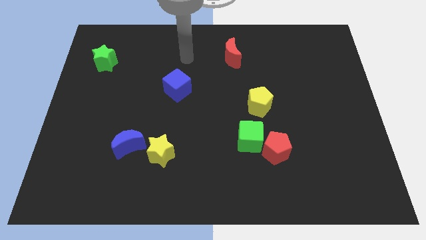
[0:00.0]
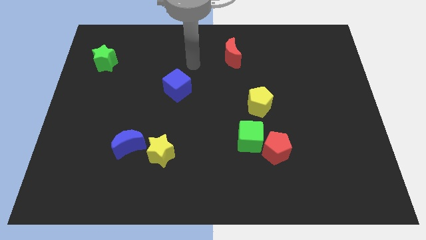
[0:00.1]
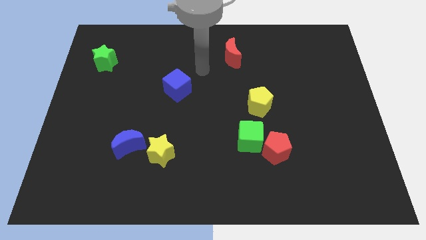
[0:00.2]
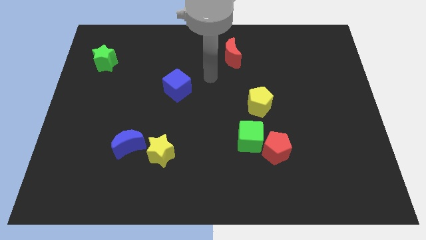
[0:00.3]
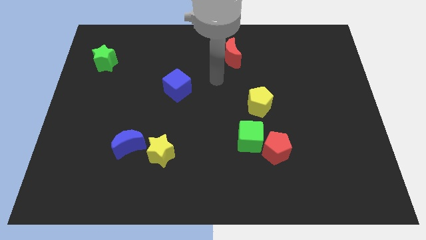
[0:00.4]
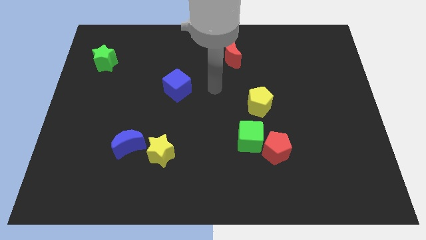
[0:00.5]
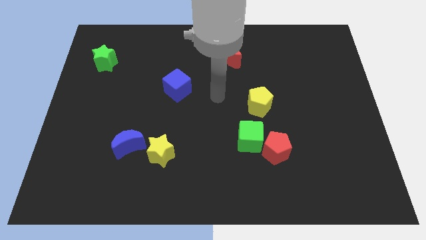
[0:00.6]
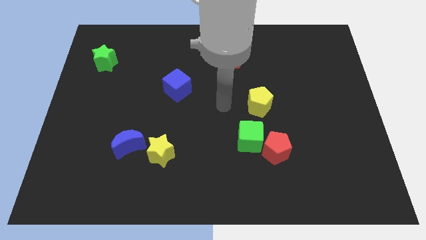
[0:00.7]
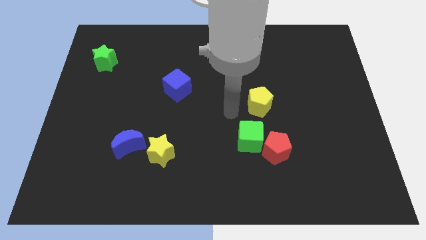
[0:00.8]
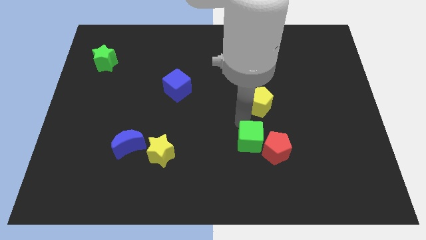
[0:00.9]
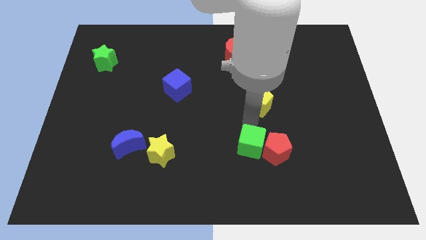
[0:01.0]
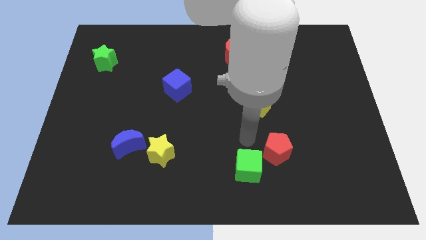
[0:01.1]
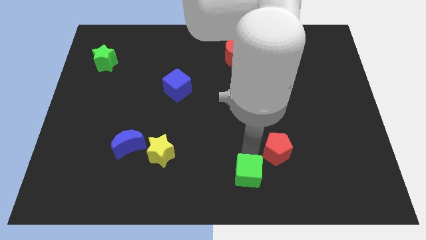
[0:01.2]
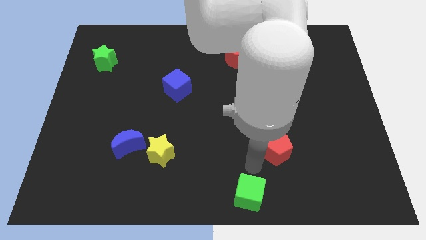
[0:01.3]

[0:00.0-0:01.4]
move the red pentagon away from the green cube

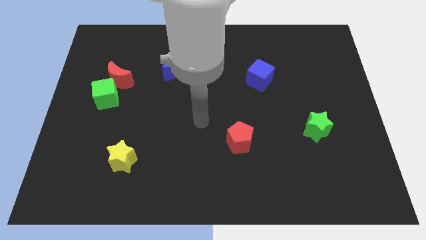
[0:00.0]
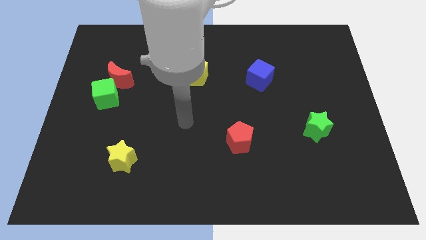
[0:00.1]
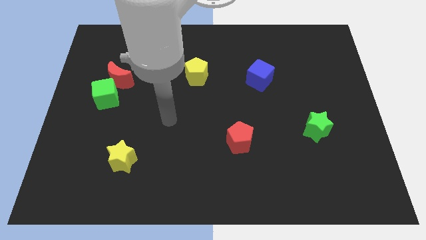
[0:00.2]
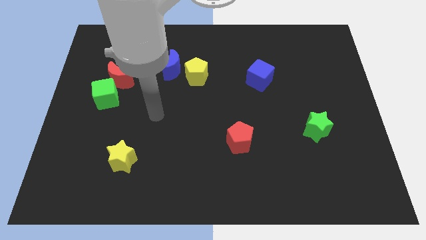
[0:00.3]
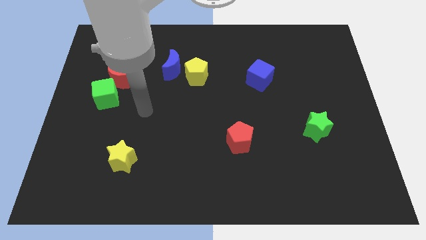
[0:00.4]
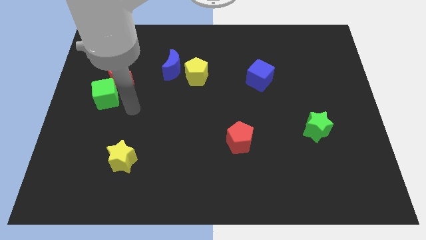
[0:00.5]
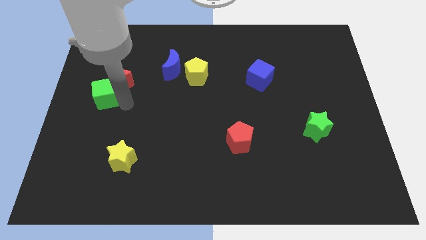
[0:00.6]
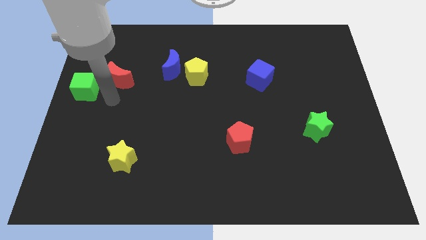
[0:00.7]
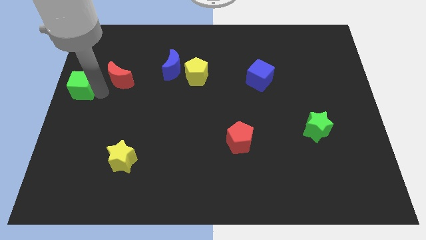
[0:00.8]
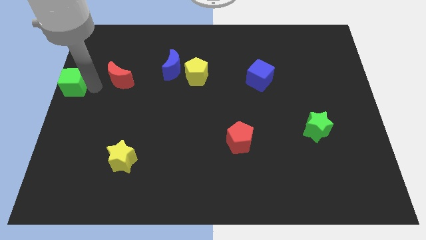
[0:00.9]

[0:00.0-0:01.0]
separate the red moon from the green cube

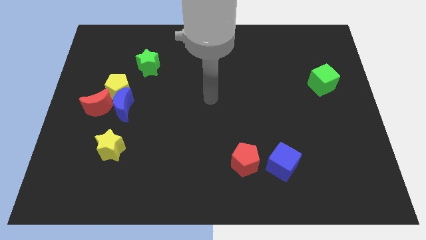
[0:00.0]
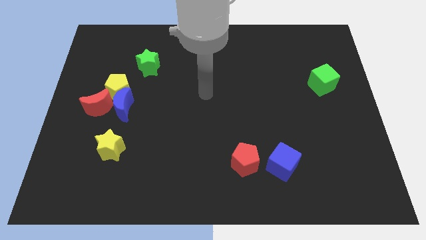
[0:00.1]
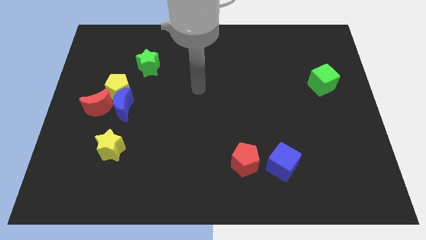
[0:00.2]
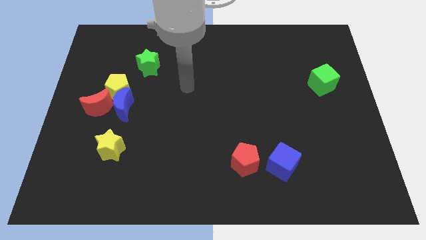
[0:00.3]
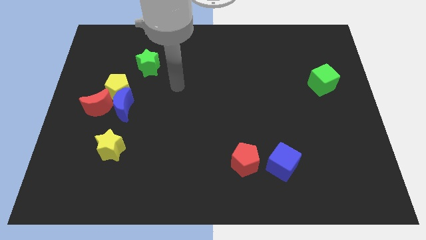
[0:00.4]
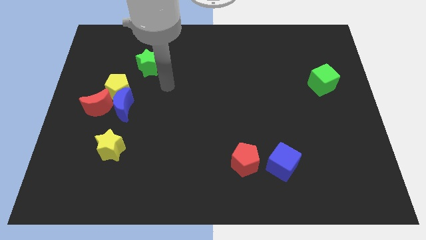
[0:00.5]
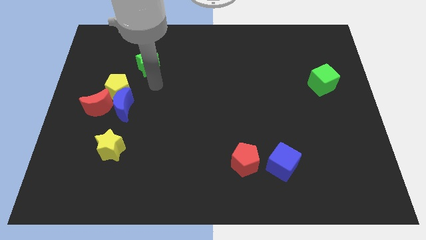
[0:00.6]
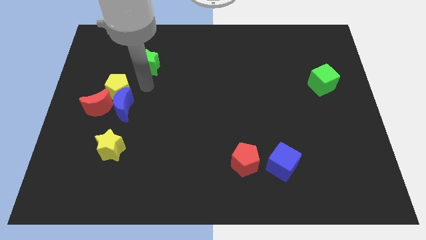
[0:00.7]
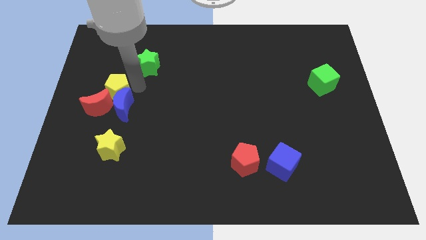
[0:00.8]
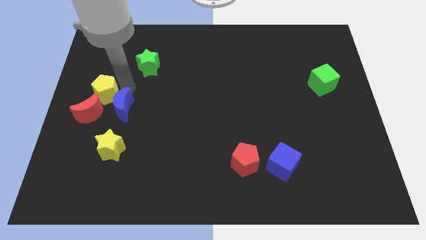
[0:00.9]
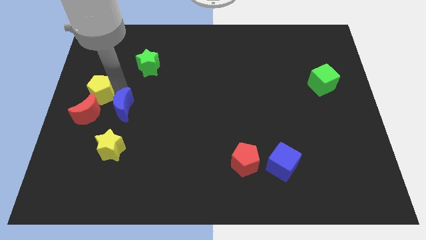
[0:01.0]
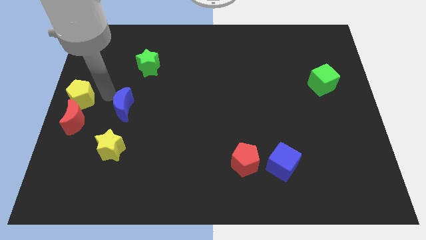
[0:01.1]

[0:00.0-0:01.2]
move the blue moon away from the yellow pentagon and red moon

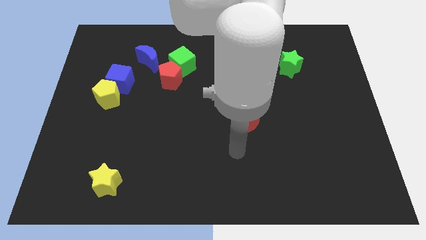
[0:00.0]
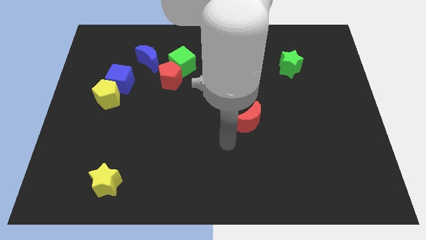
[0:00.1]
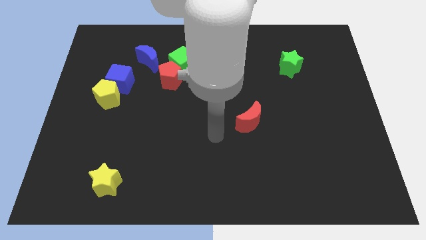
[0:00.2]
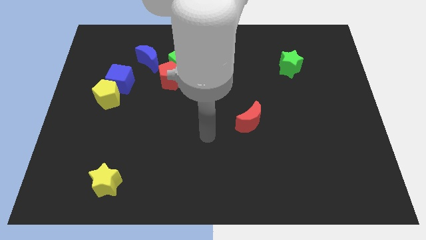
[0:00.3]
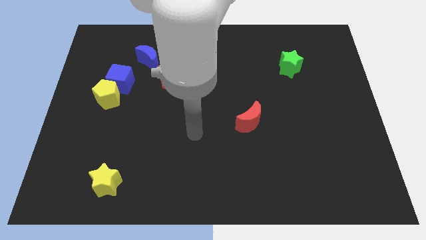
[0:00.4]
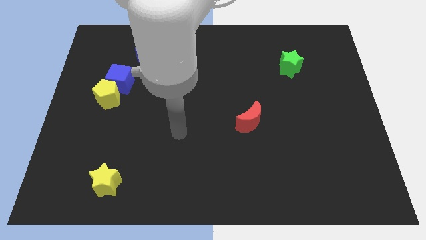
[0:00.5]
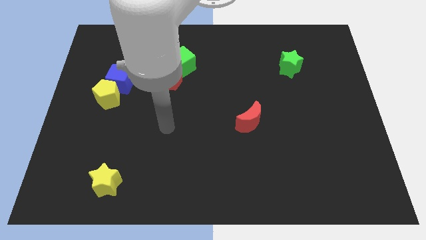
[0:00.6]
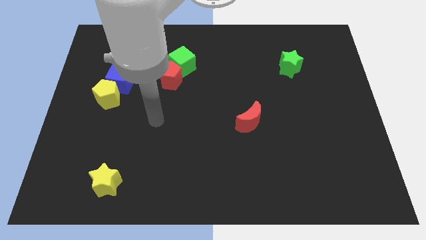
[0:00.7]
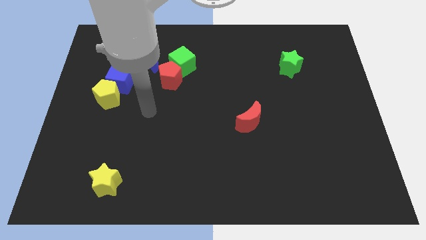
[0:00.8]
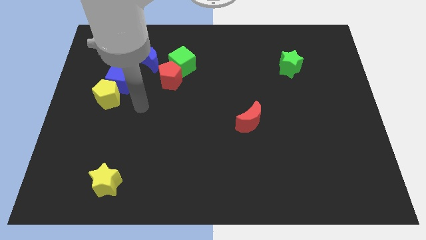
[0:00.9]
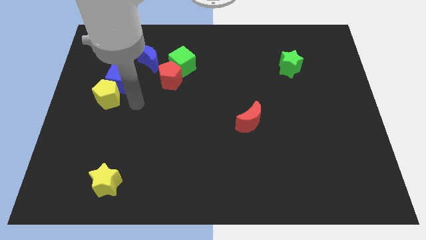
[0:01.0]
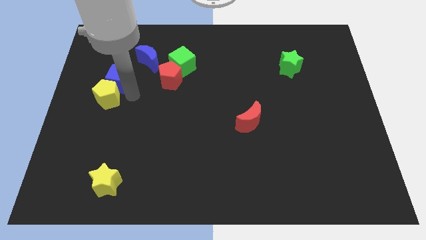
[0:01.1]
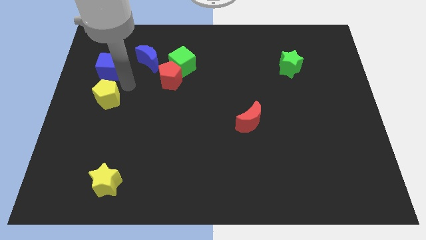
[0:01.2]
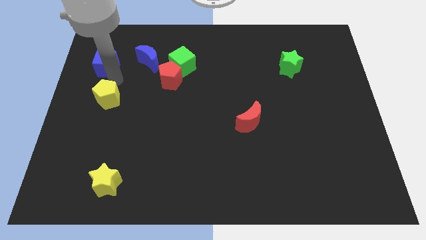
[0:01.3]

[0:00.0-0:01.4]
move the yellow pentagon away from the blue cube

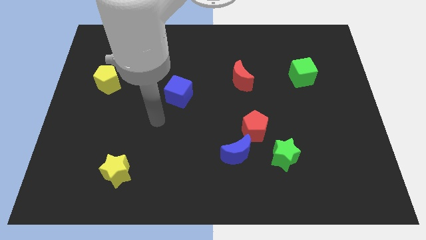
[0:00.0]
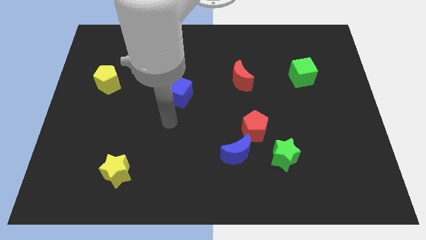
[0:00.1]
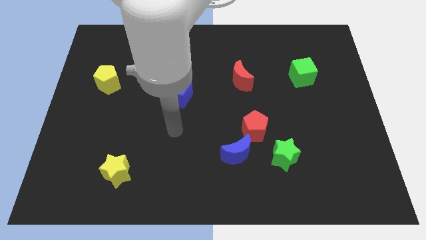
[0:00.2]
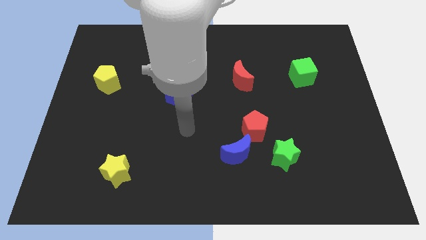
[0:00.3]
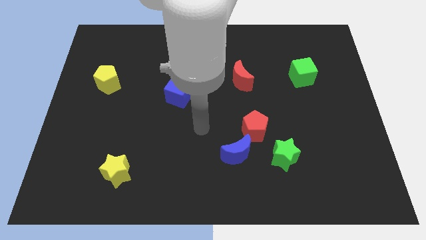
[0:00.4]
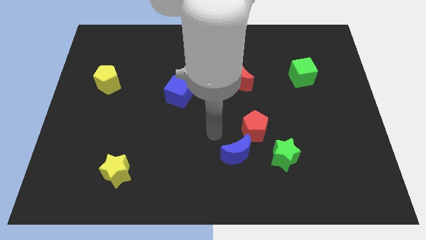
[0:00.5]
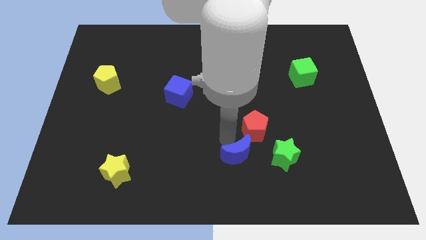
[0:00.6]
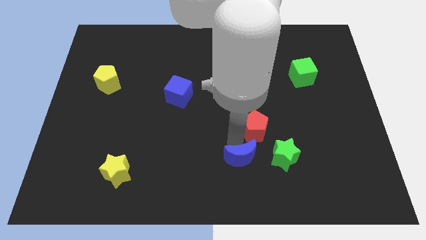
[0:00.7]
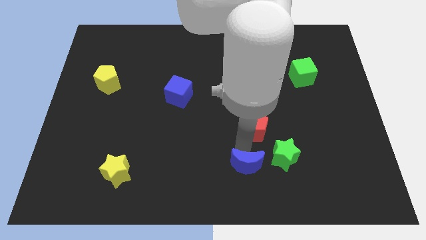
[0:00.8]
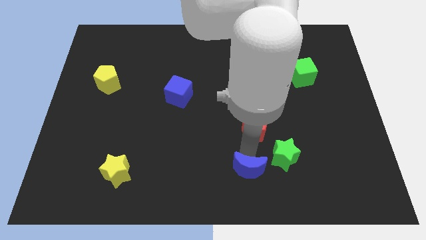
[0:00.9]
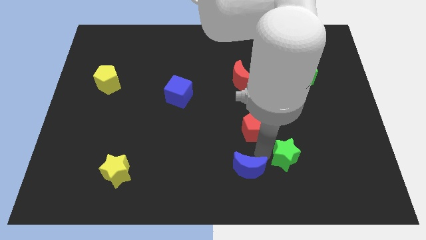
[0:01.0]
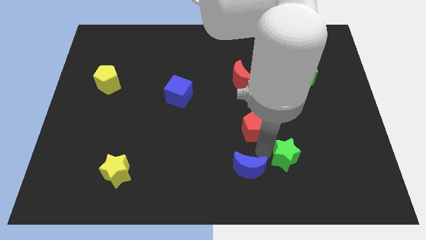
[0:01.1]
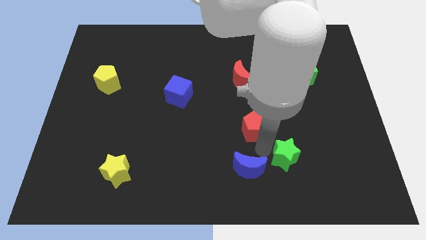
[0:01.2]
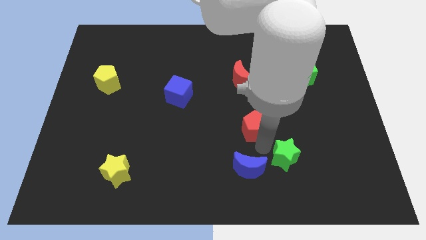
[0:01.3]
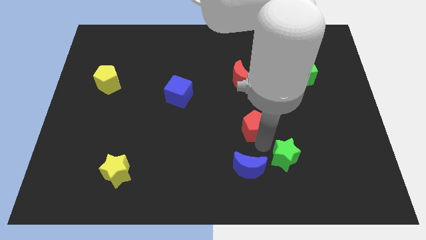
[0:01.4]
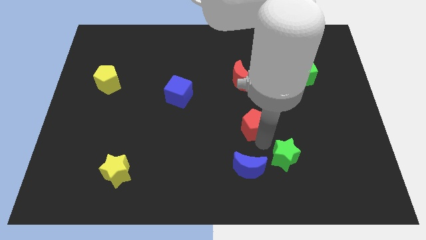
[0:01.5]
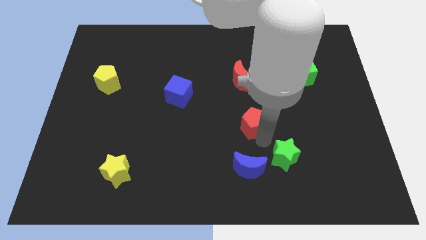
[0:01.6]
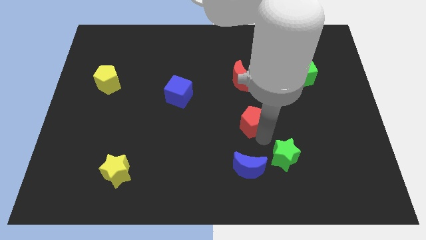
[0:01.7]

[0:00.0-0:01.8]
pull the red pentagon apart from the blue moon and green star

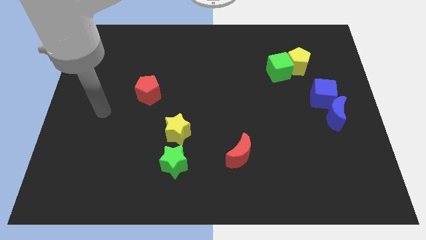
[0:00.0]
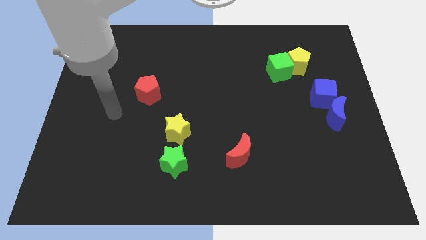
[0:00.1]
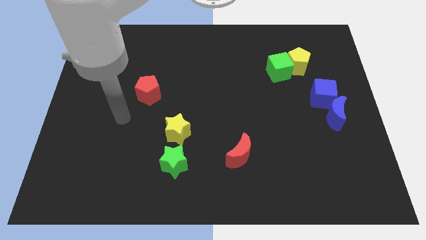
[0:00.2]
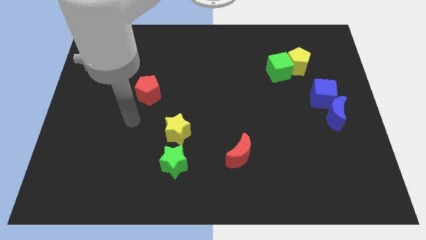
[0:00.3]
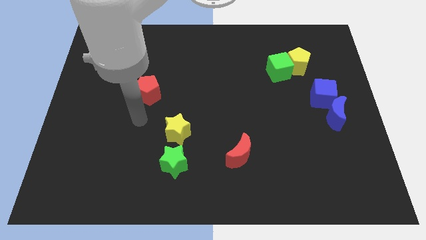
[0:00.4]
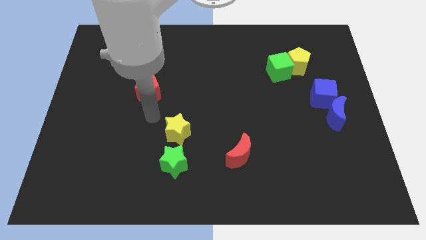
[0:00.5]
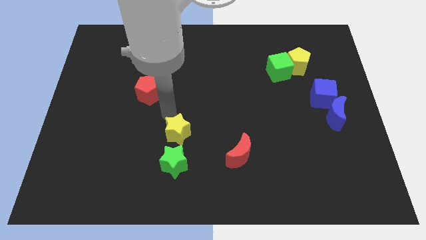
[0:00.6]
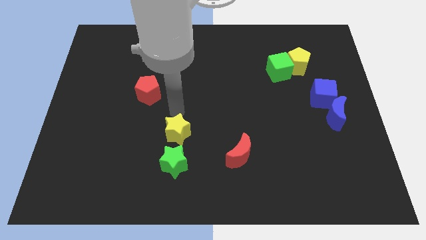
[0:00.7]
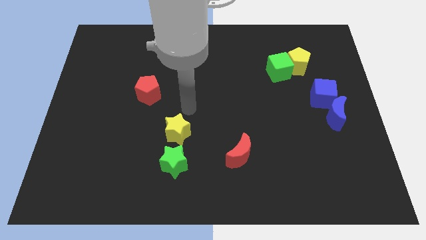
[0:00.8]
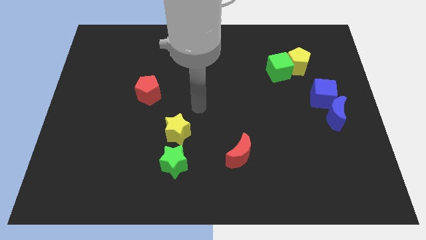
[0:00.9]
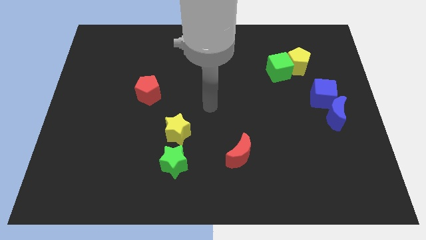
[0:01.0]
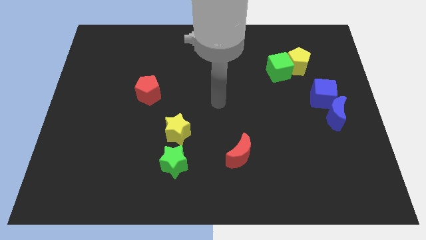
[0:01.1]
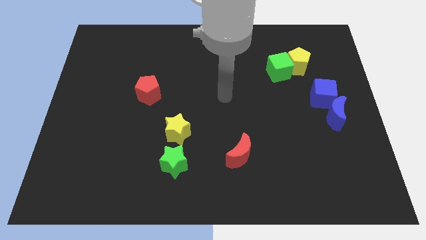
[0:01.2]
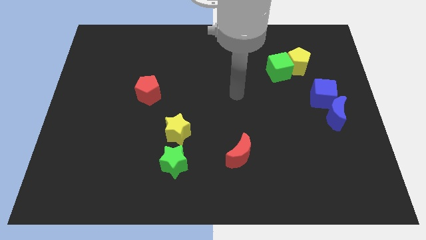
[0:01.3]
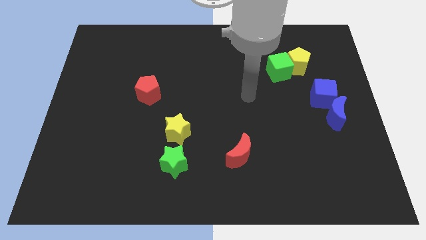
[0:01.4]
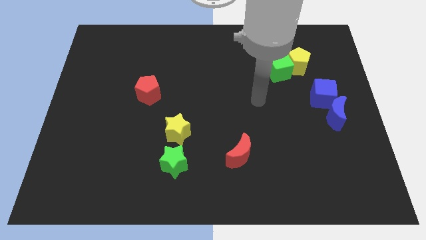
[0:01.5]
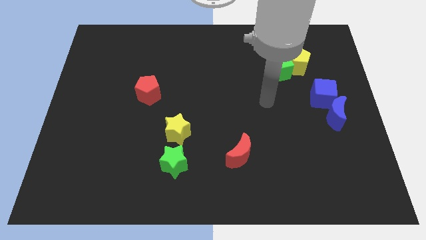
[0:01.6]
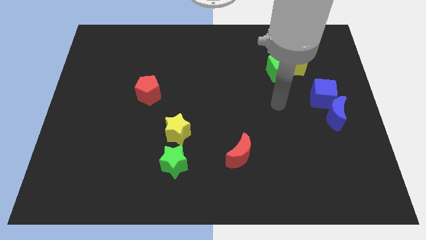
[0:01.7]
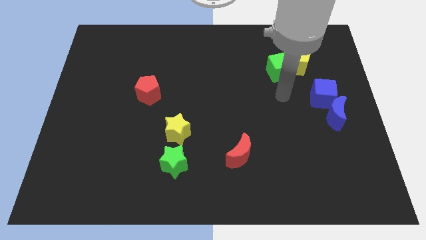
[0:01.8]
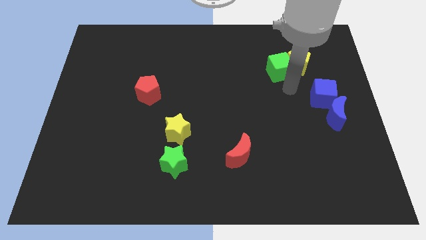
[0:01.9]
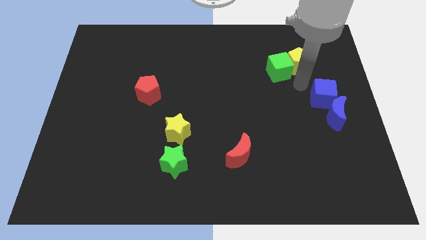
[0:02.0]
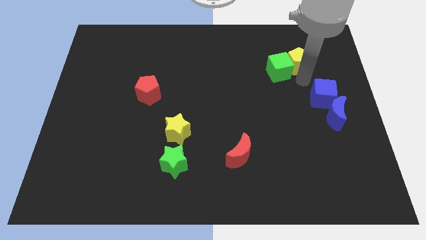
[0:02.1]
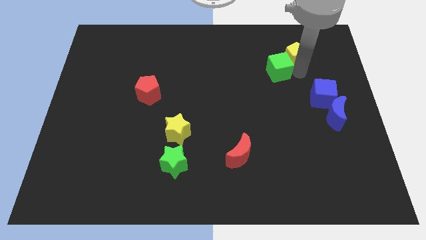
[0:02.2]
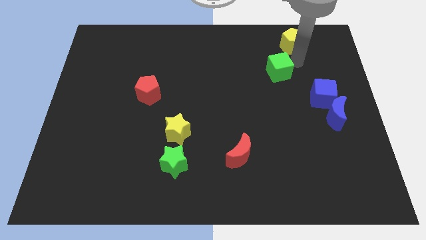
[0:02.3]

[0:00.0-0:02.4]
pull the green cube apart from the yellow pentagon
